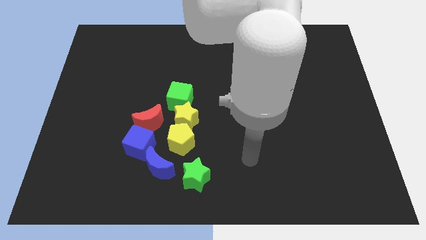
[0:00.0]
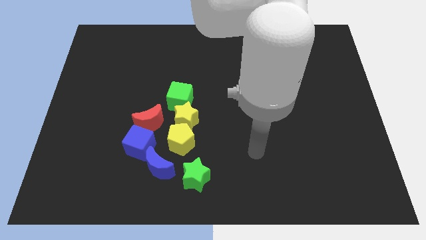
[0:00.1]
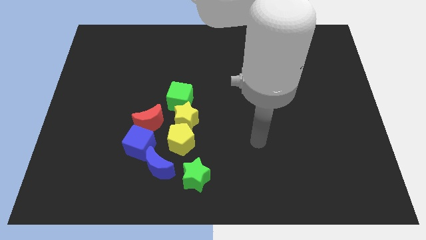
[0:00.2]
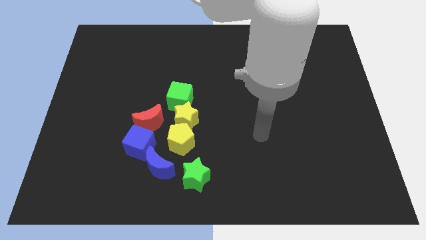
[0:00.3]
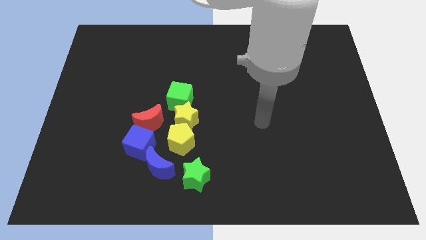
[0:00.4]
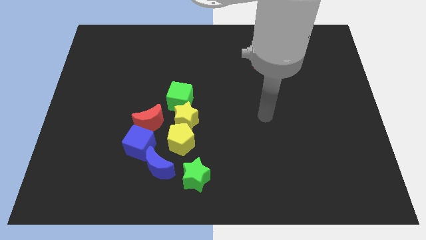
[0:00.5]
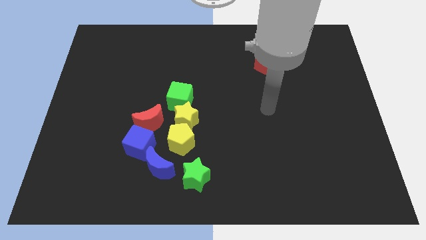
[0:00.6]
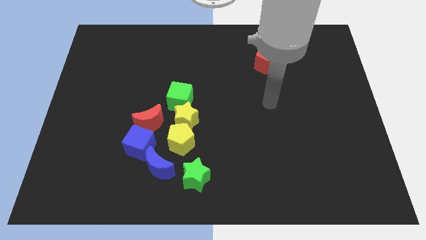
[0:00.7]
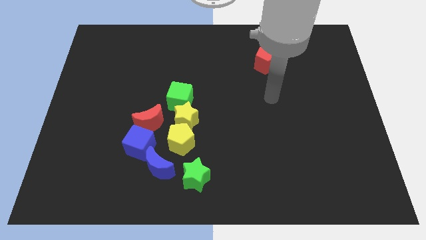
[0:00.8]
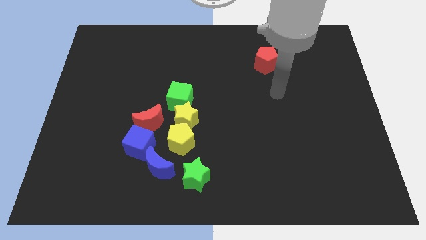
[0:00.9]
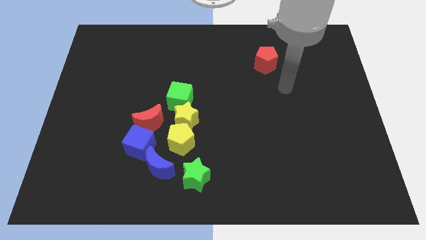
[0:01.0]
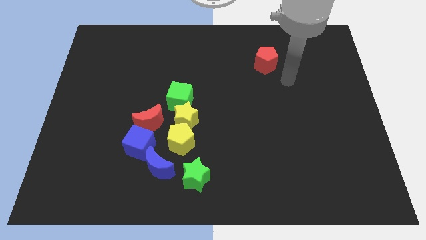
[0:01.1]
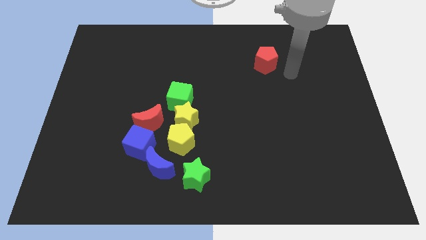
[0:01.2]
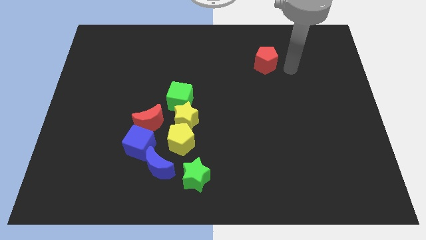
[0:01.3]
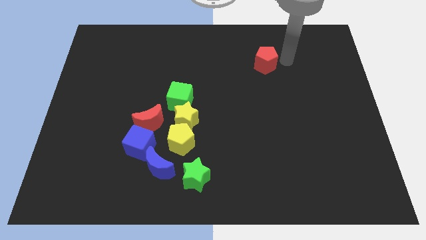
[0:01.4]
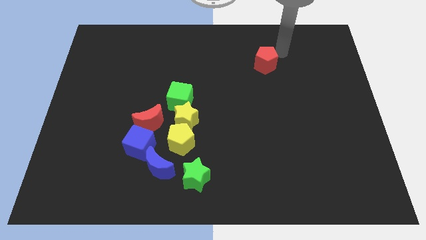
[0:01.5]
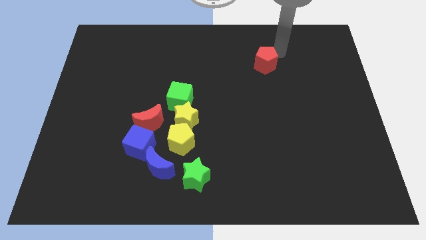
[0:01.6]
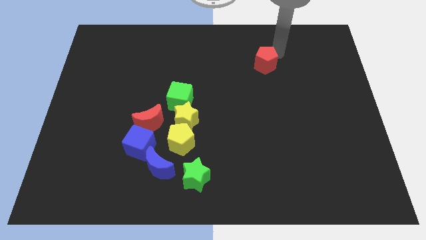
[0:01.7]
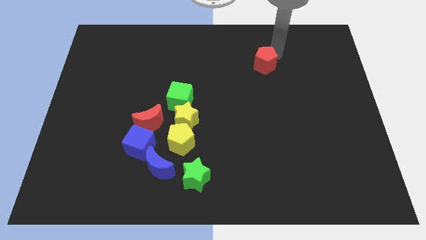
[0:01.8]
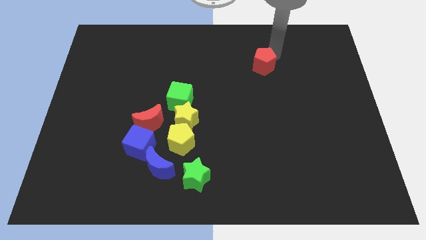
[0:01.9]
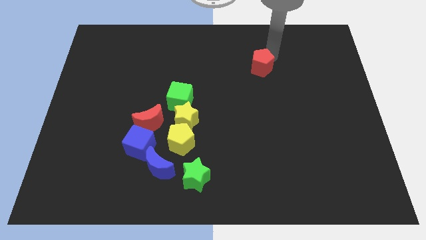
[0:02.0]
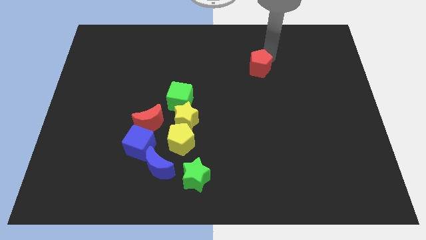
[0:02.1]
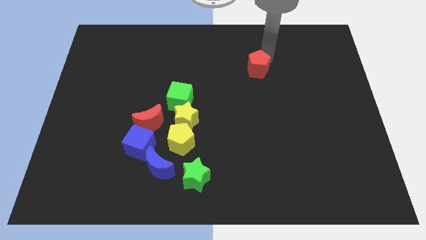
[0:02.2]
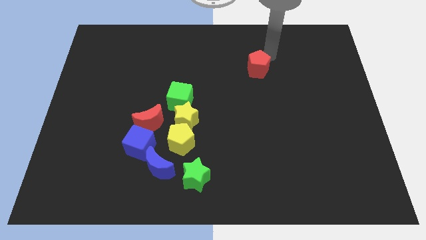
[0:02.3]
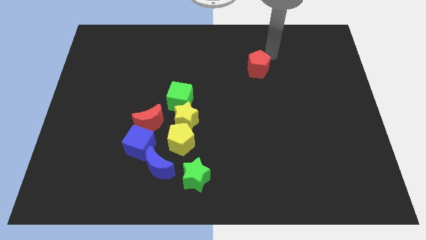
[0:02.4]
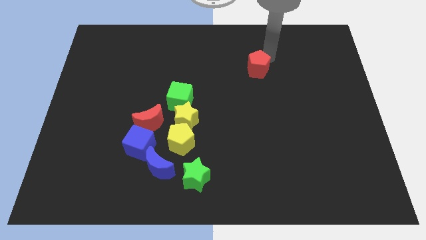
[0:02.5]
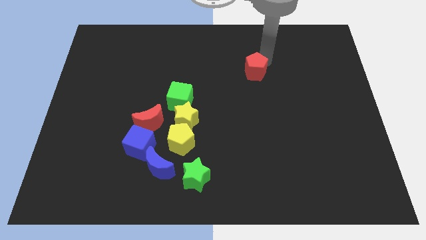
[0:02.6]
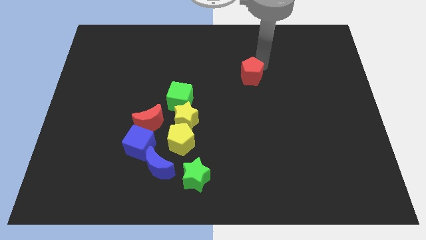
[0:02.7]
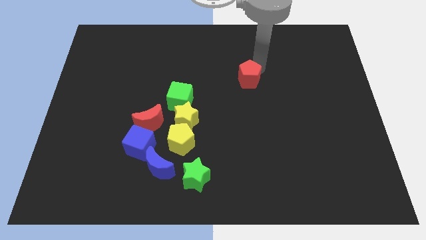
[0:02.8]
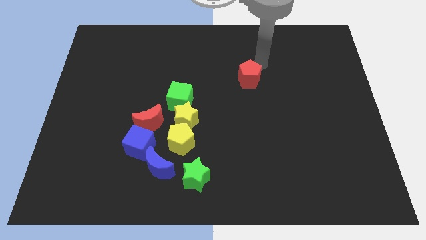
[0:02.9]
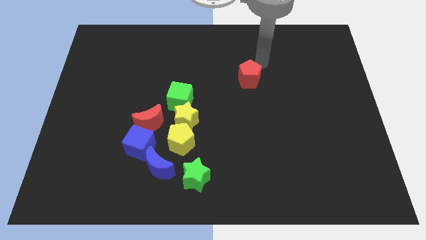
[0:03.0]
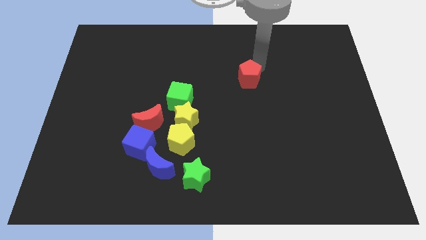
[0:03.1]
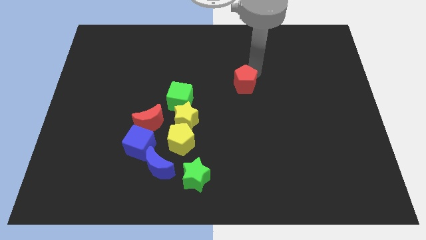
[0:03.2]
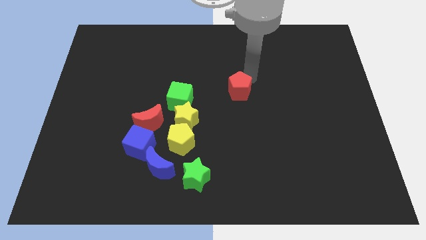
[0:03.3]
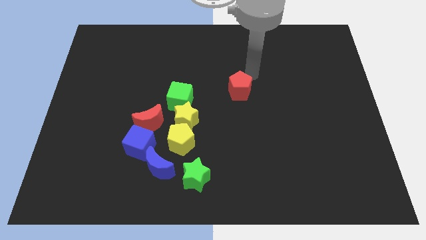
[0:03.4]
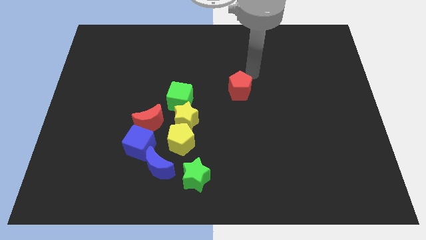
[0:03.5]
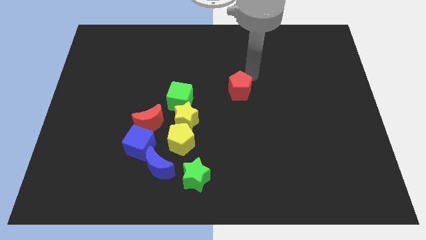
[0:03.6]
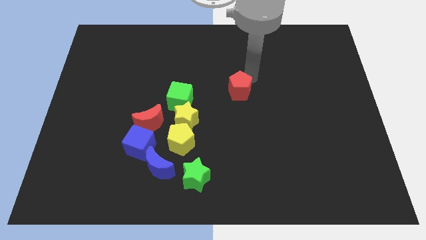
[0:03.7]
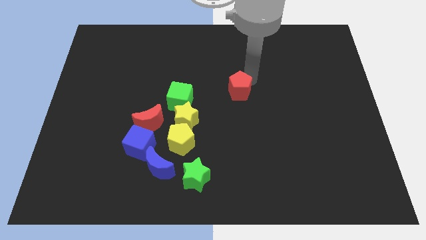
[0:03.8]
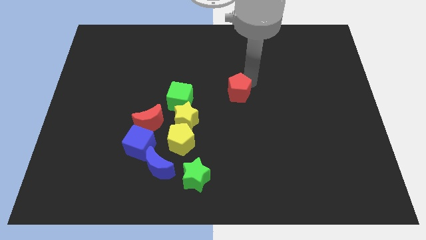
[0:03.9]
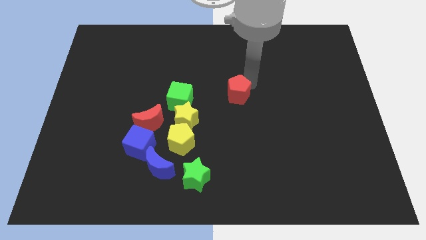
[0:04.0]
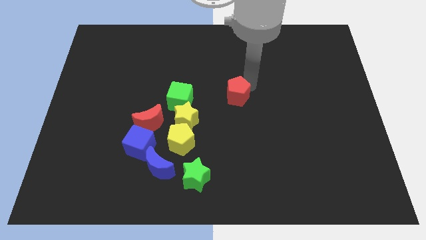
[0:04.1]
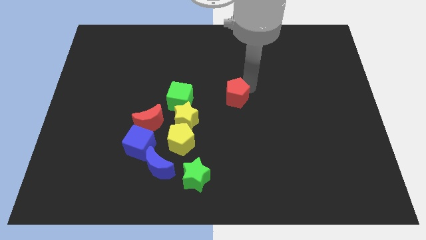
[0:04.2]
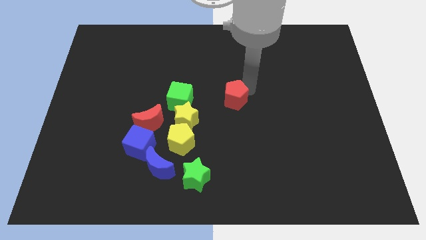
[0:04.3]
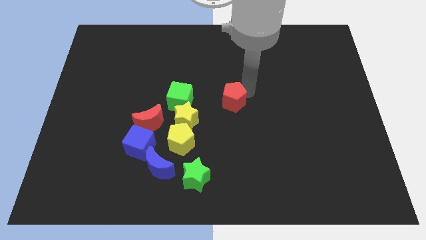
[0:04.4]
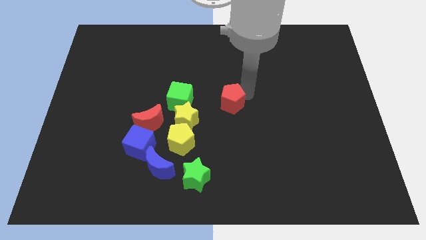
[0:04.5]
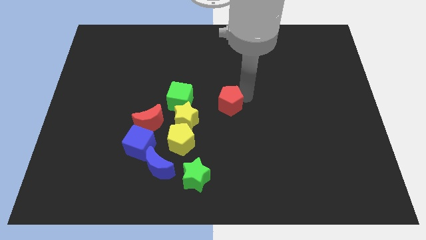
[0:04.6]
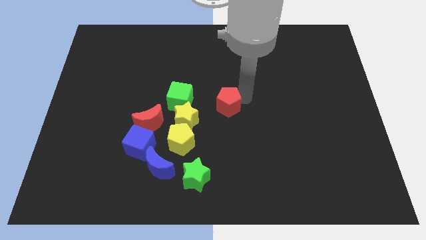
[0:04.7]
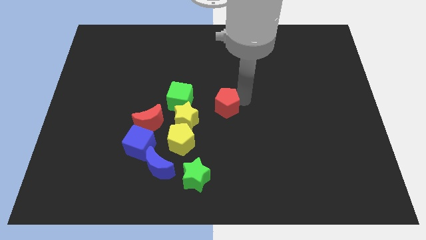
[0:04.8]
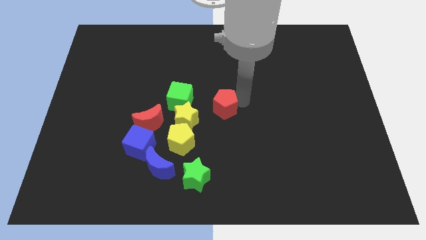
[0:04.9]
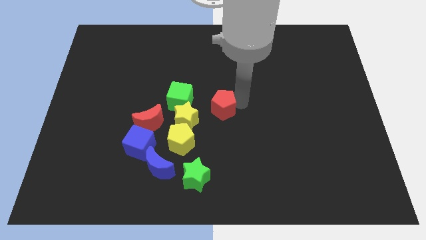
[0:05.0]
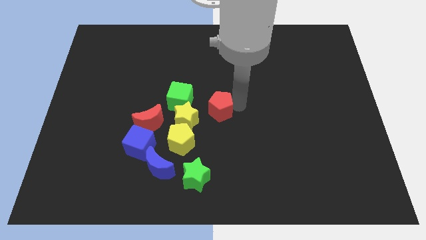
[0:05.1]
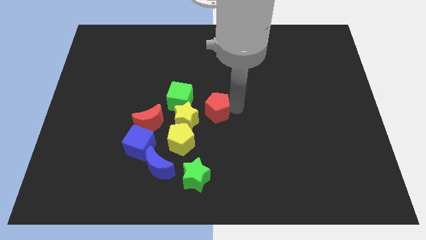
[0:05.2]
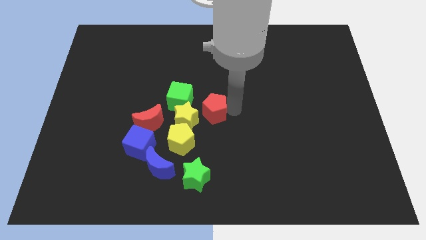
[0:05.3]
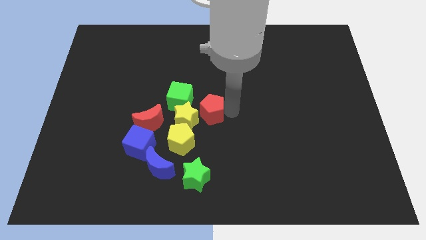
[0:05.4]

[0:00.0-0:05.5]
slide the red pentagon towards the yellow star

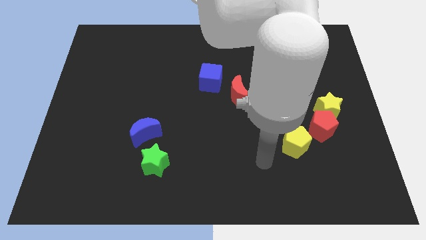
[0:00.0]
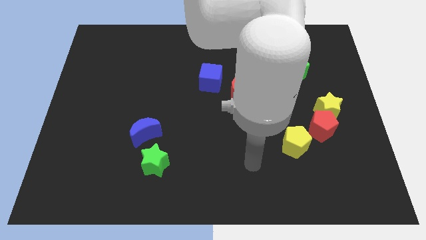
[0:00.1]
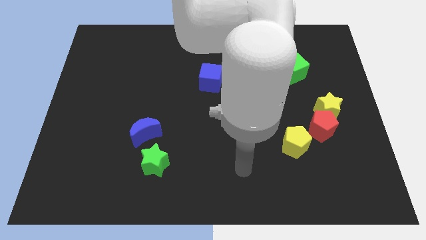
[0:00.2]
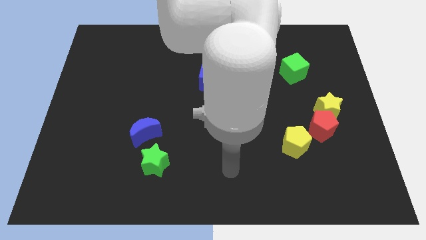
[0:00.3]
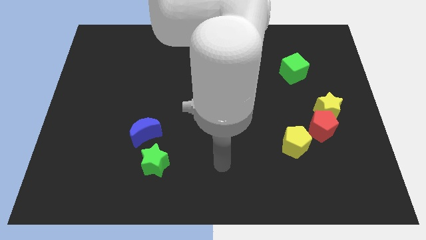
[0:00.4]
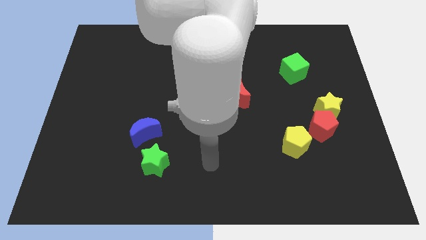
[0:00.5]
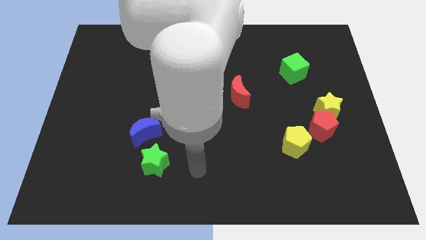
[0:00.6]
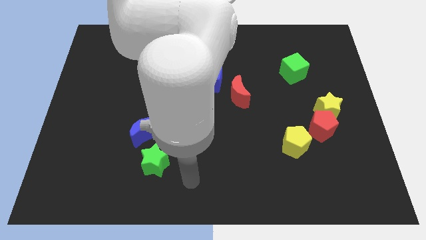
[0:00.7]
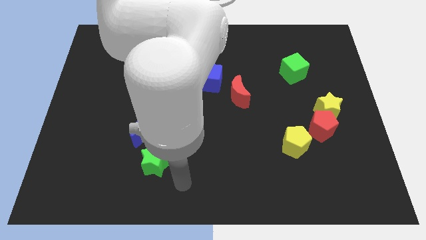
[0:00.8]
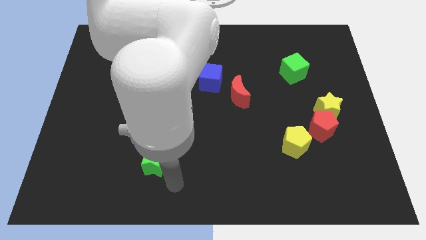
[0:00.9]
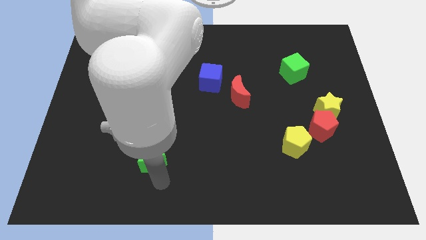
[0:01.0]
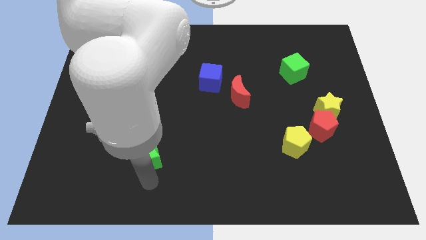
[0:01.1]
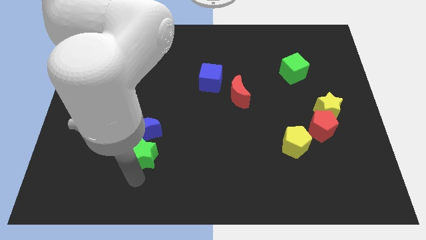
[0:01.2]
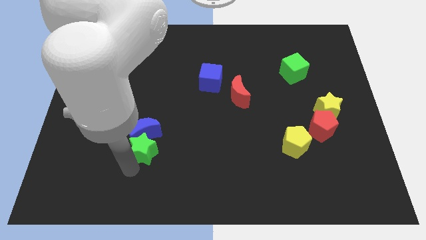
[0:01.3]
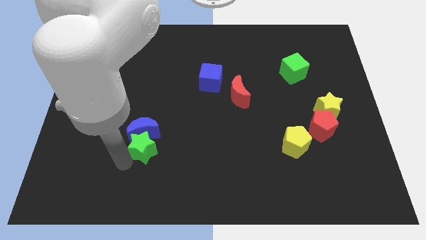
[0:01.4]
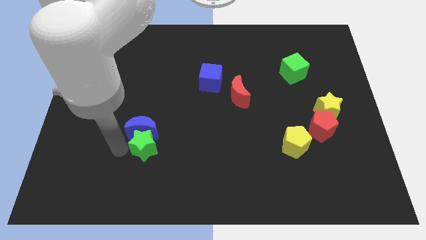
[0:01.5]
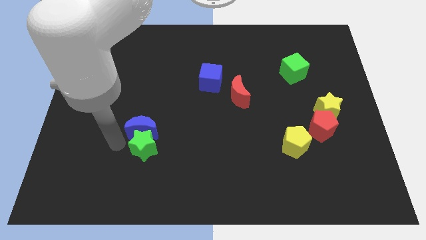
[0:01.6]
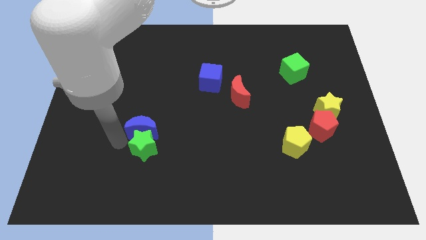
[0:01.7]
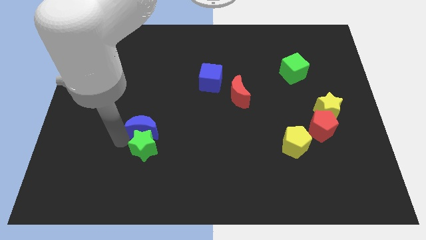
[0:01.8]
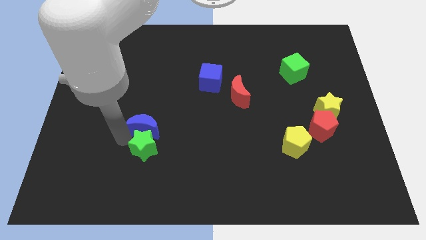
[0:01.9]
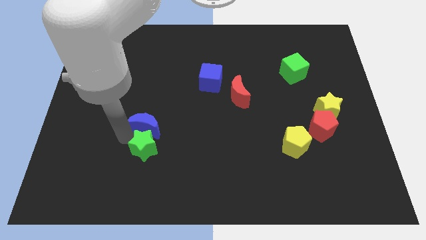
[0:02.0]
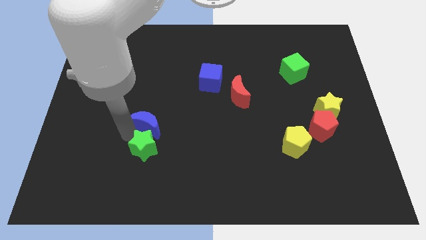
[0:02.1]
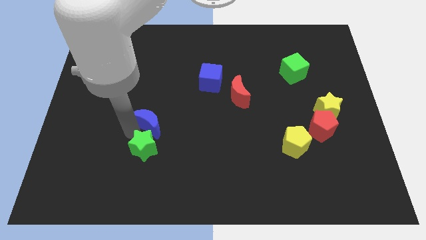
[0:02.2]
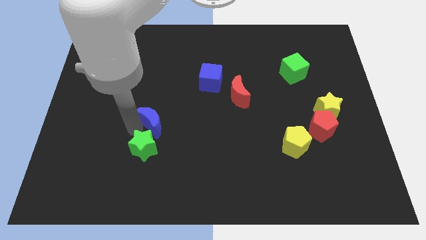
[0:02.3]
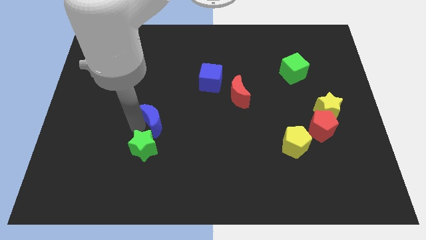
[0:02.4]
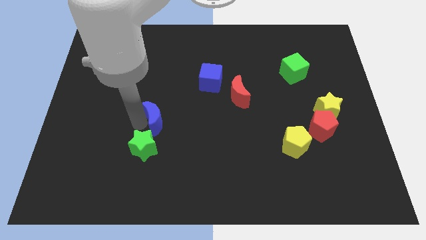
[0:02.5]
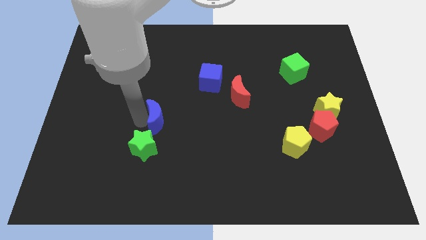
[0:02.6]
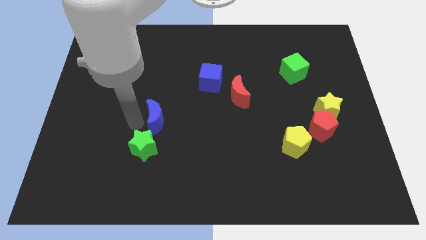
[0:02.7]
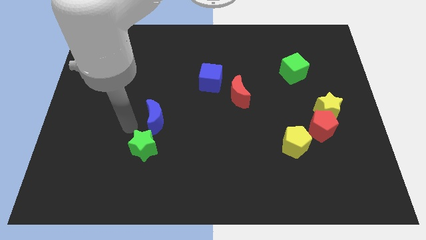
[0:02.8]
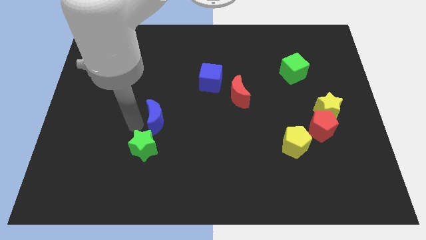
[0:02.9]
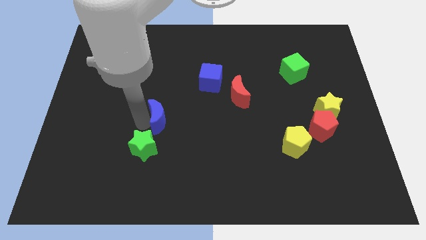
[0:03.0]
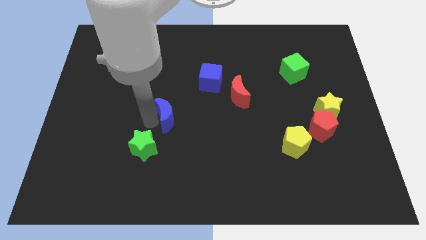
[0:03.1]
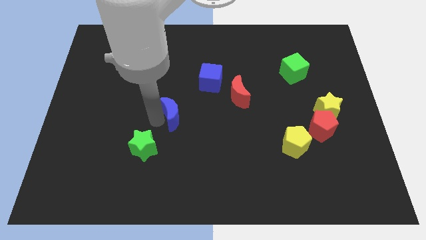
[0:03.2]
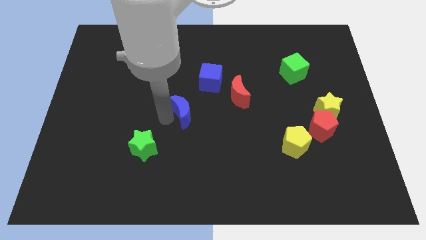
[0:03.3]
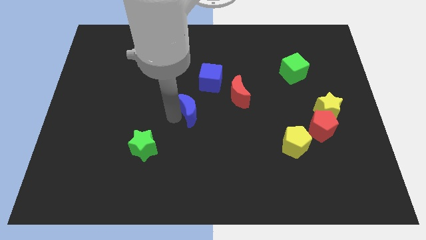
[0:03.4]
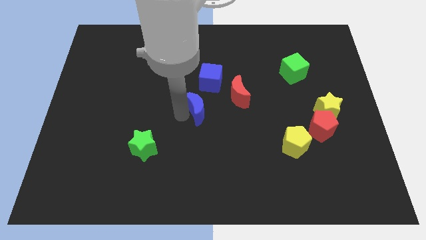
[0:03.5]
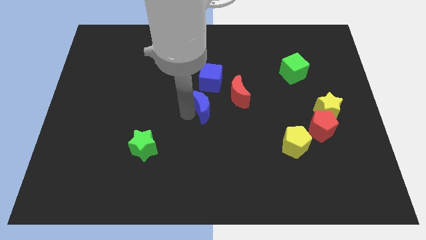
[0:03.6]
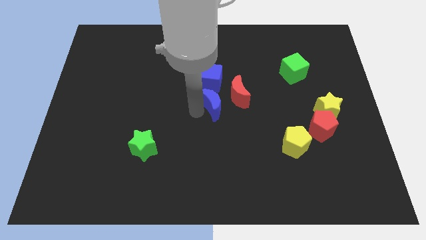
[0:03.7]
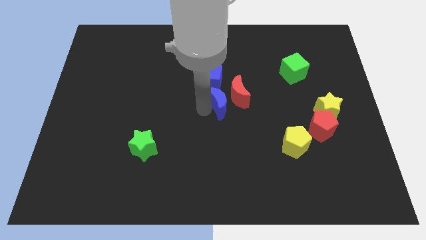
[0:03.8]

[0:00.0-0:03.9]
put the blue moon next to the red moon
